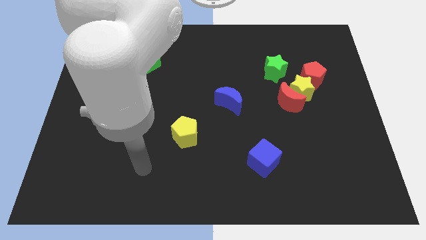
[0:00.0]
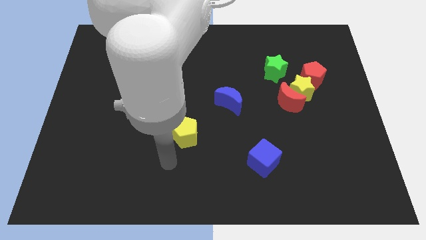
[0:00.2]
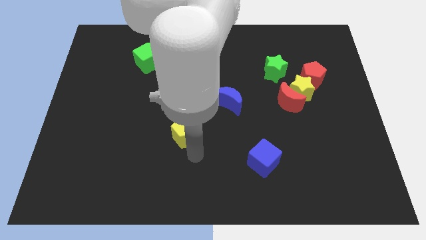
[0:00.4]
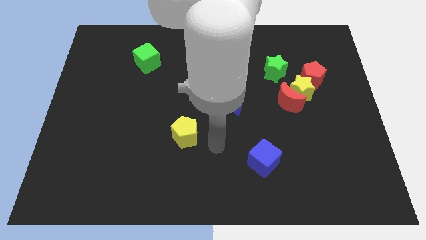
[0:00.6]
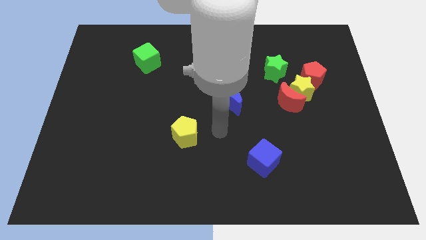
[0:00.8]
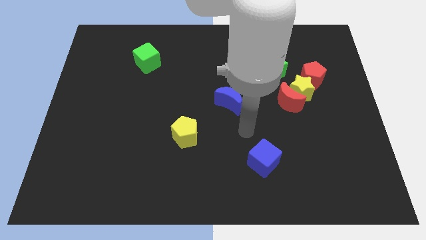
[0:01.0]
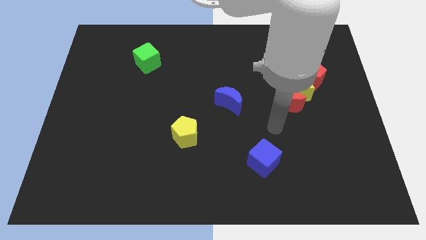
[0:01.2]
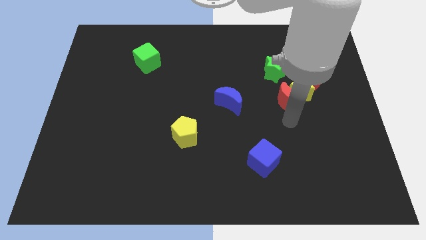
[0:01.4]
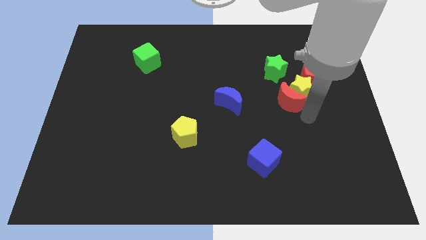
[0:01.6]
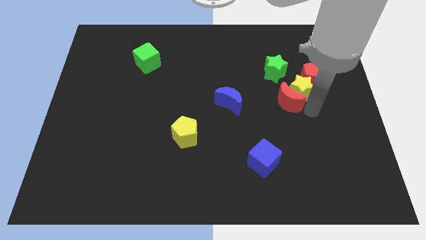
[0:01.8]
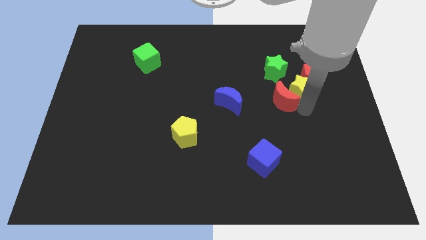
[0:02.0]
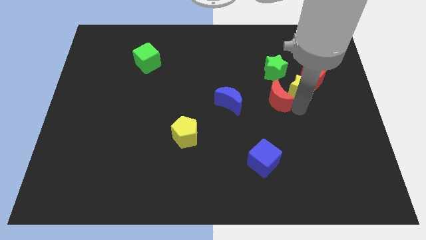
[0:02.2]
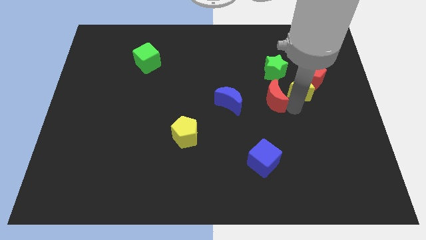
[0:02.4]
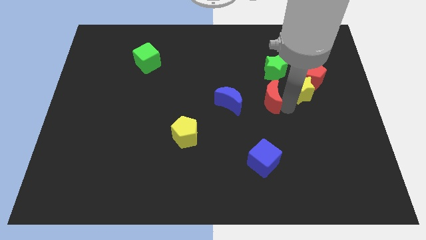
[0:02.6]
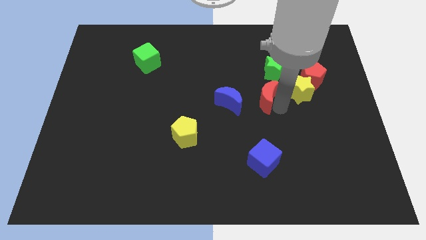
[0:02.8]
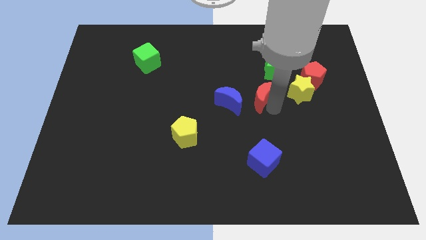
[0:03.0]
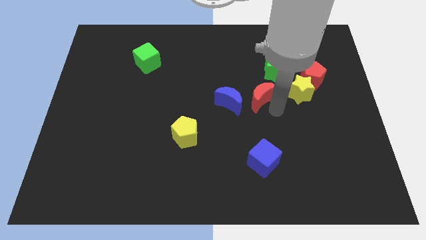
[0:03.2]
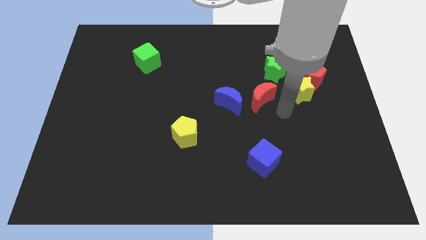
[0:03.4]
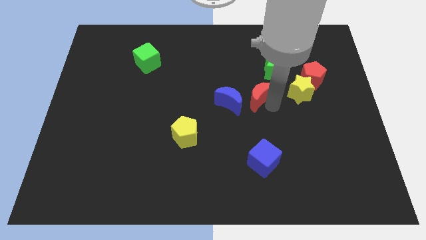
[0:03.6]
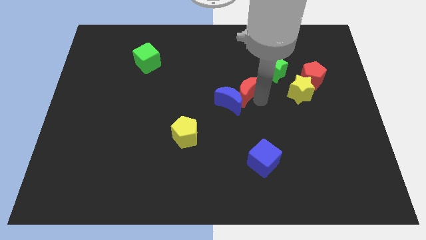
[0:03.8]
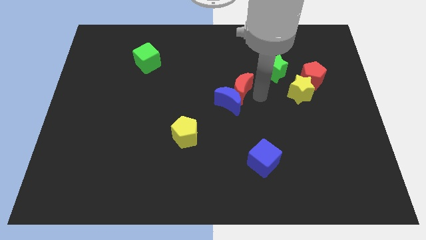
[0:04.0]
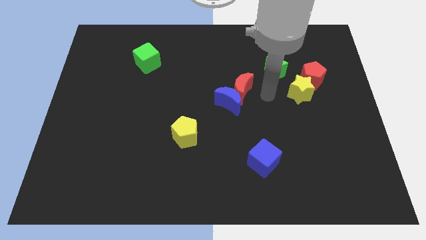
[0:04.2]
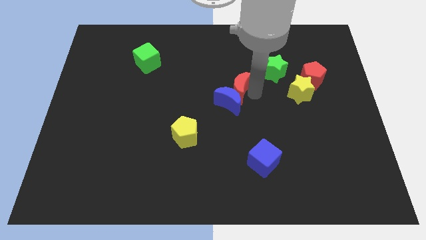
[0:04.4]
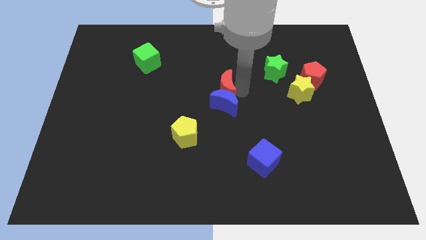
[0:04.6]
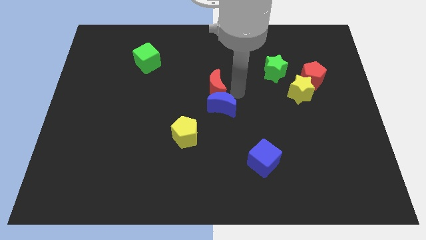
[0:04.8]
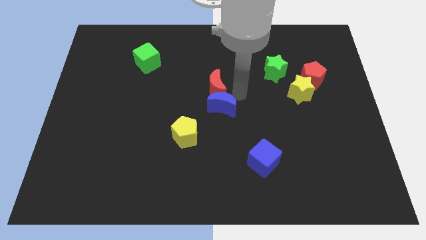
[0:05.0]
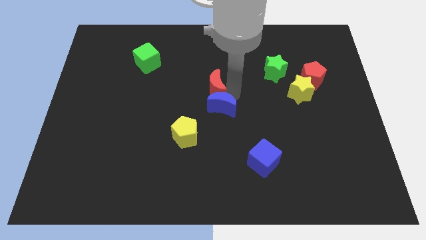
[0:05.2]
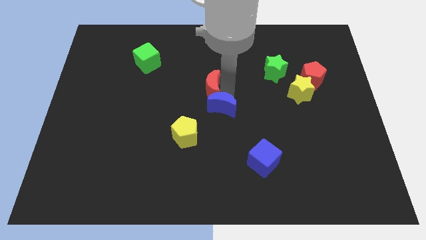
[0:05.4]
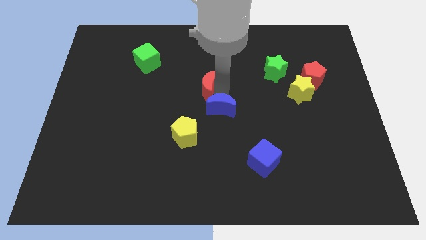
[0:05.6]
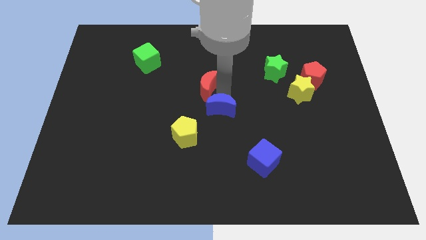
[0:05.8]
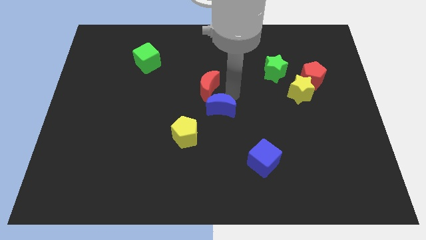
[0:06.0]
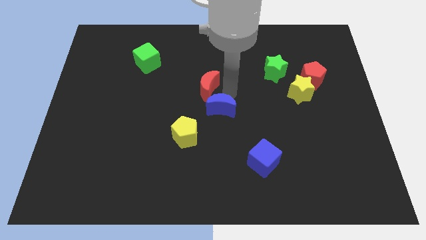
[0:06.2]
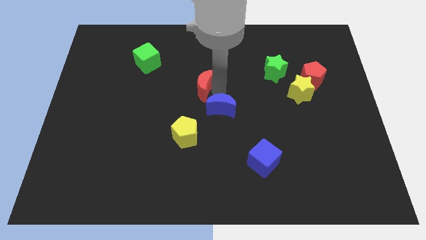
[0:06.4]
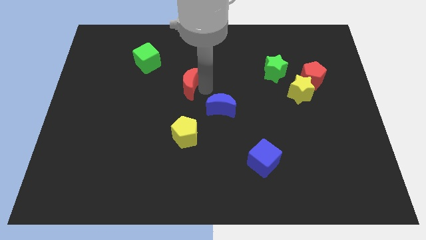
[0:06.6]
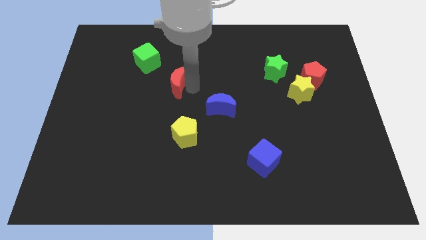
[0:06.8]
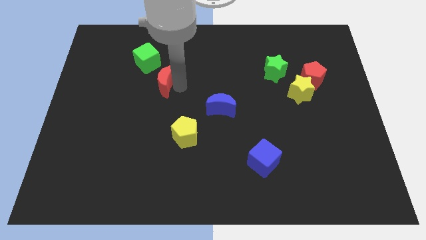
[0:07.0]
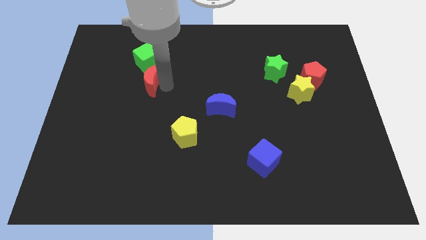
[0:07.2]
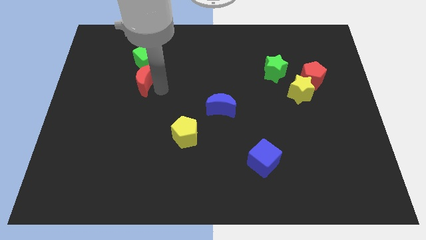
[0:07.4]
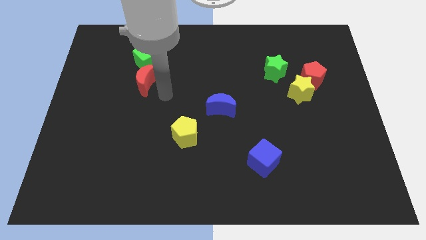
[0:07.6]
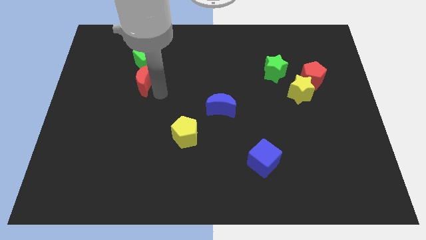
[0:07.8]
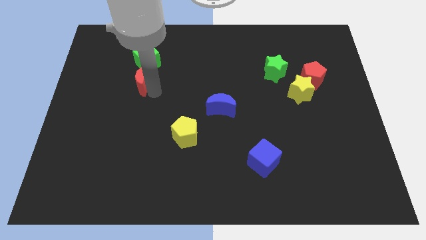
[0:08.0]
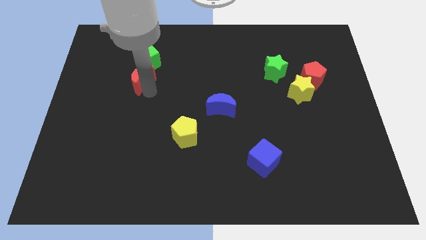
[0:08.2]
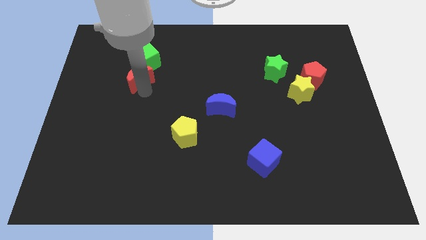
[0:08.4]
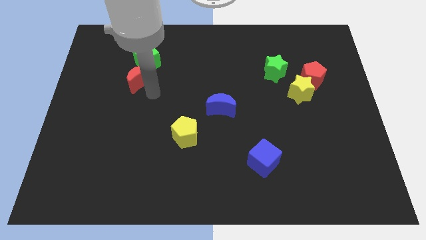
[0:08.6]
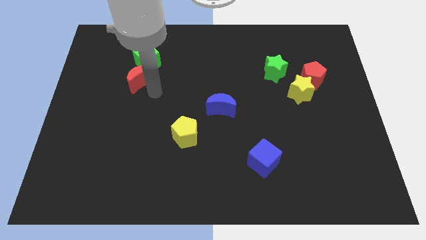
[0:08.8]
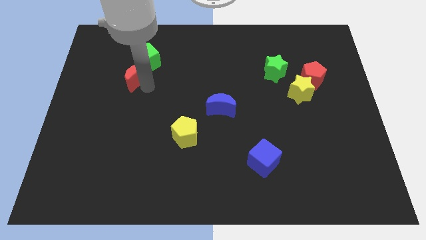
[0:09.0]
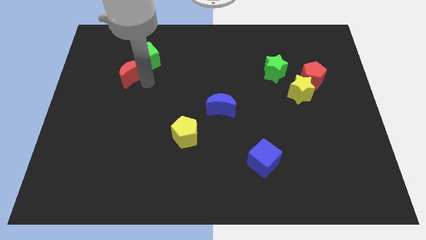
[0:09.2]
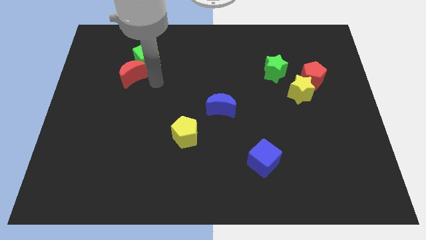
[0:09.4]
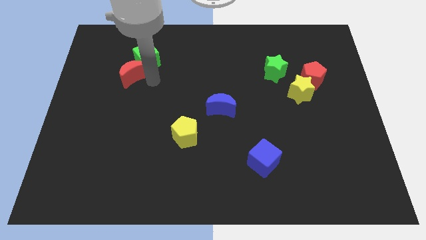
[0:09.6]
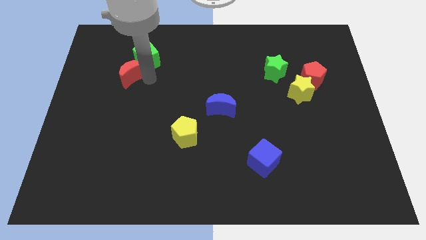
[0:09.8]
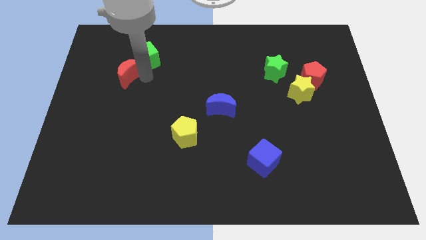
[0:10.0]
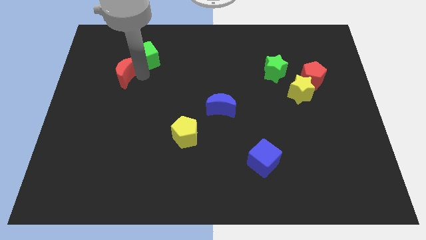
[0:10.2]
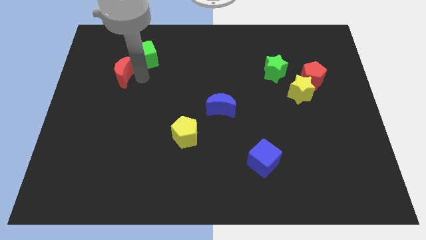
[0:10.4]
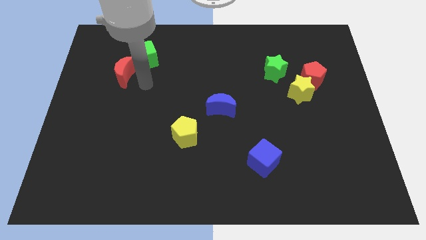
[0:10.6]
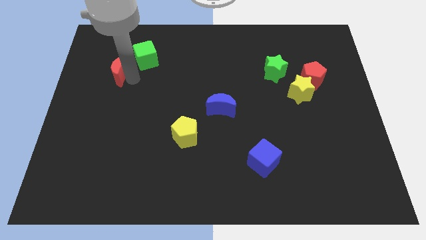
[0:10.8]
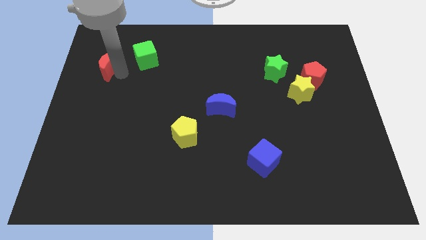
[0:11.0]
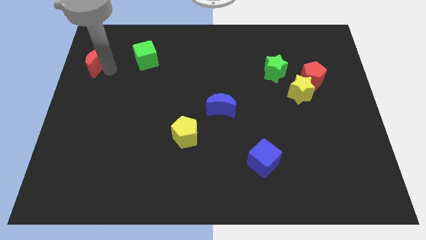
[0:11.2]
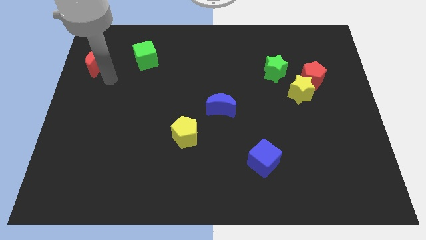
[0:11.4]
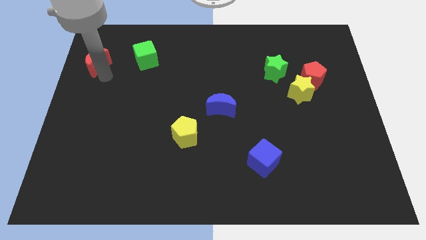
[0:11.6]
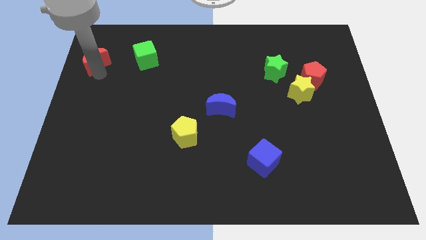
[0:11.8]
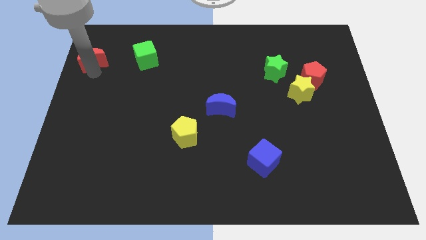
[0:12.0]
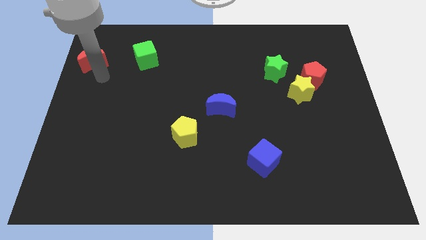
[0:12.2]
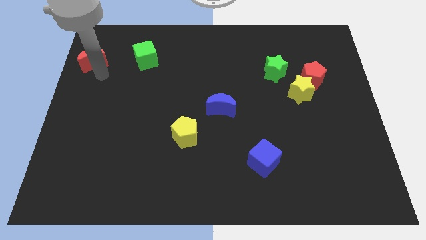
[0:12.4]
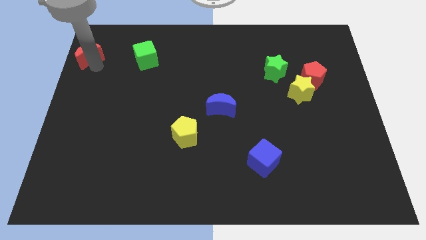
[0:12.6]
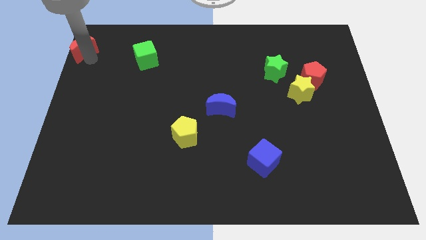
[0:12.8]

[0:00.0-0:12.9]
slide the red moon to the top left
